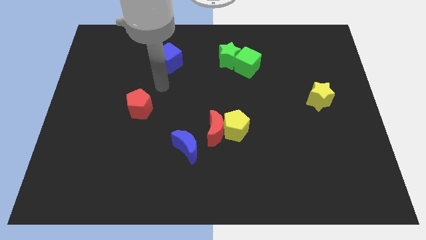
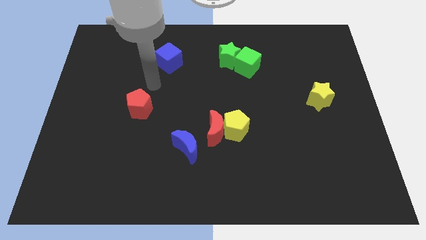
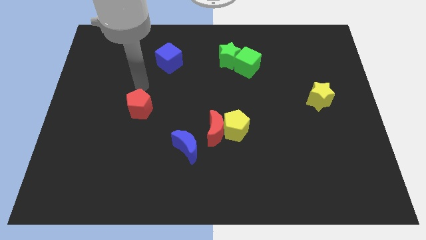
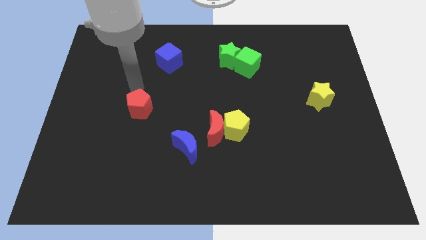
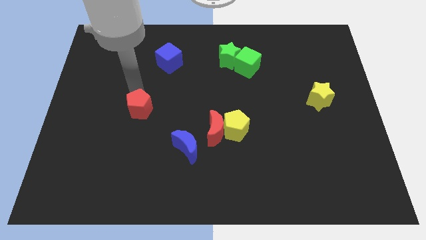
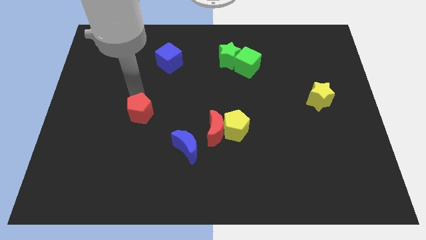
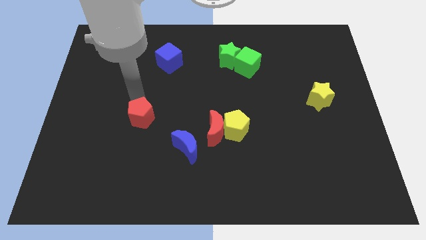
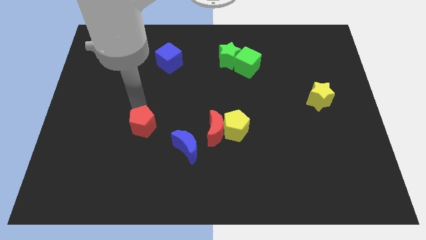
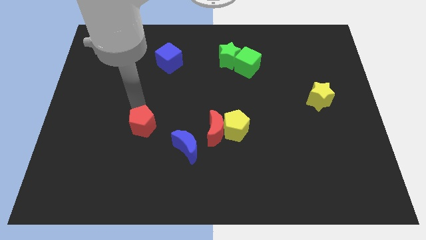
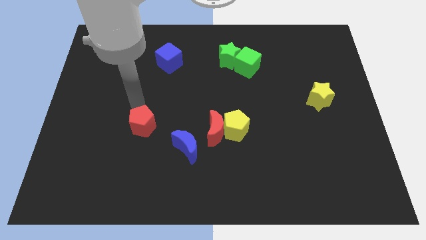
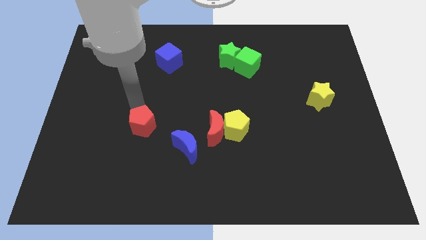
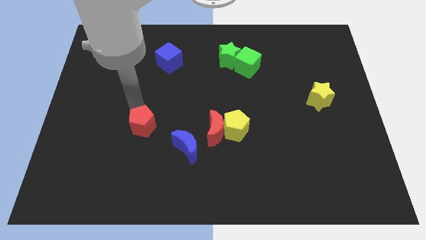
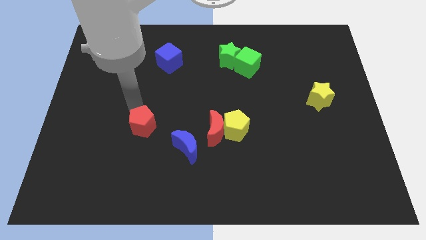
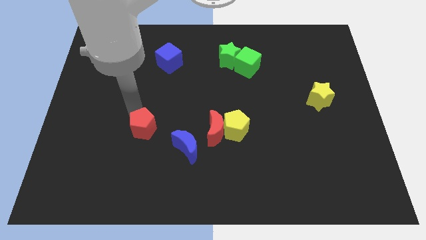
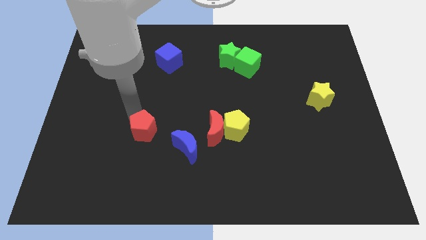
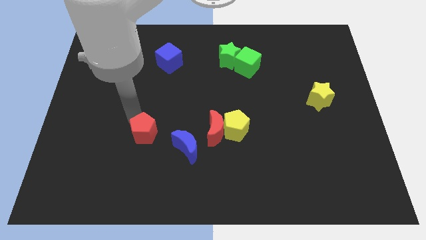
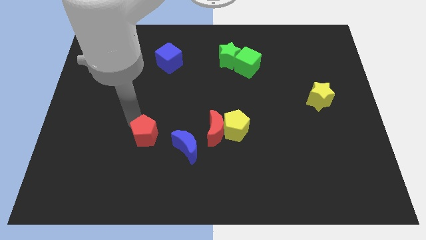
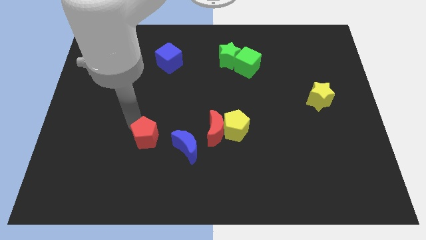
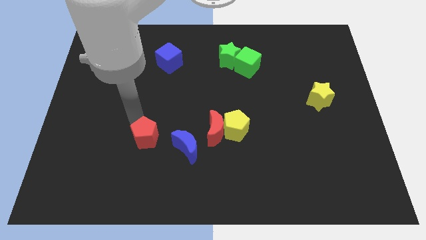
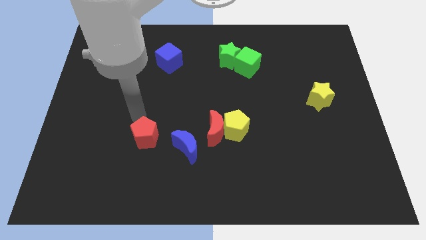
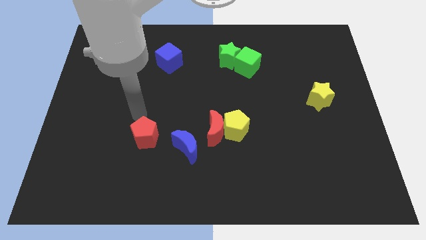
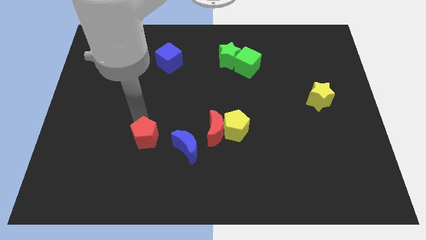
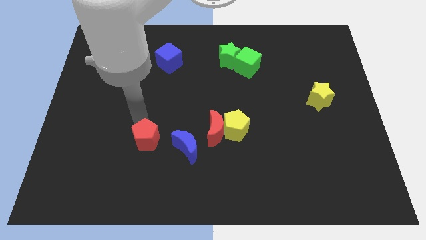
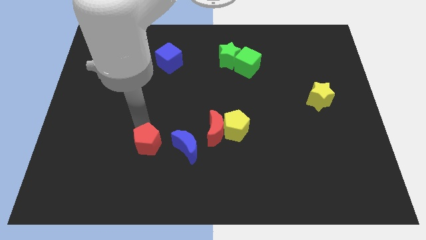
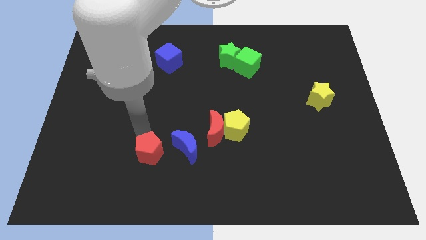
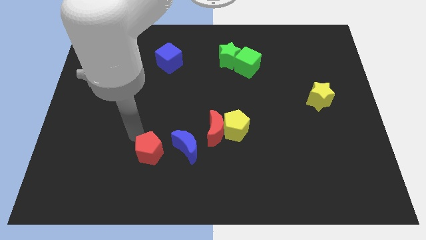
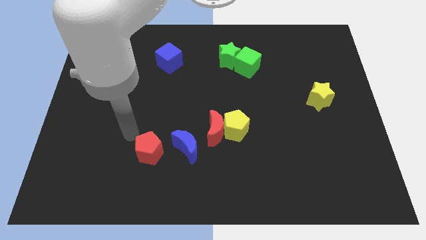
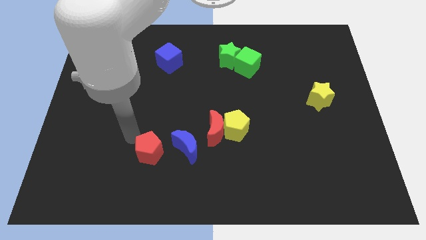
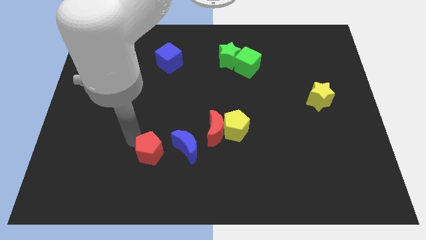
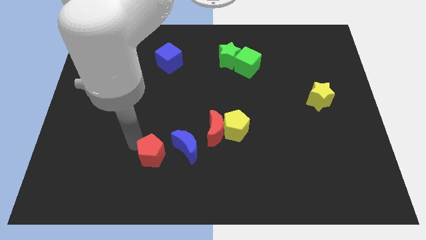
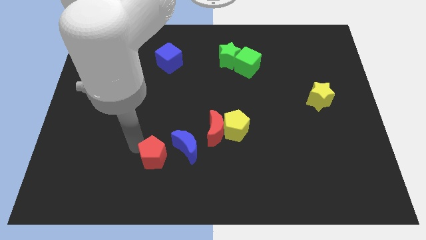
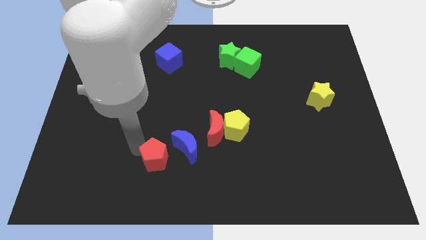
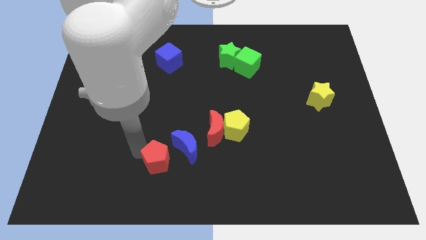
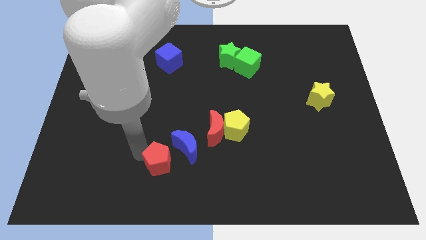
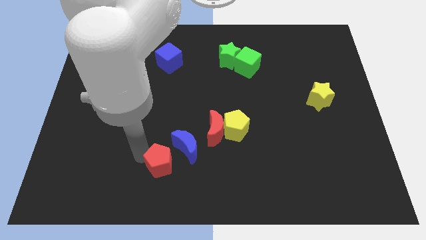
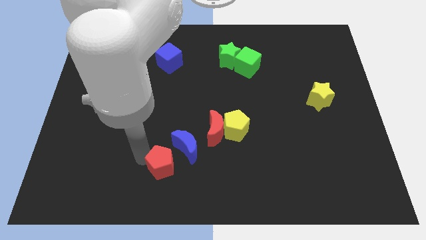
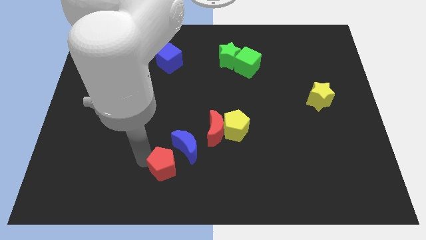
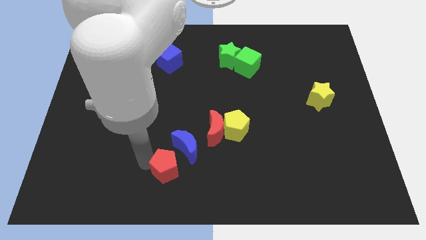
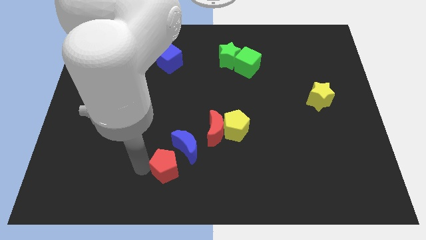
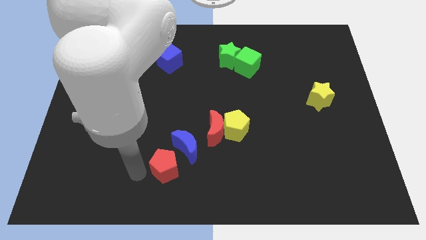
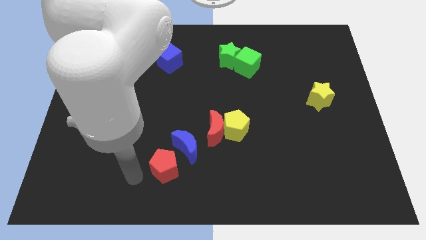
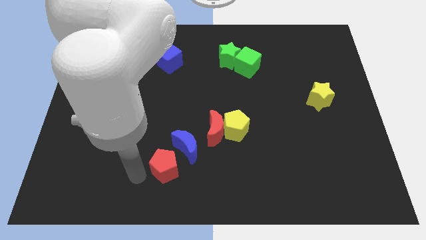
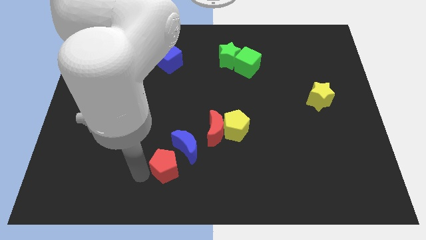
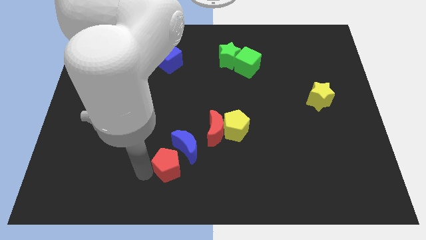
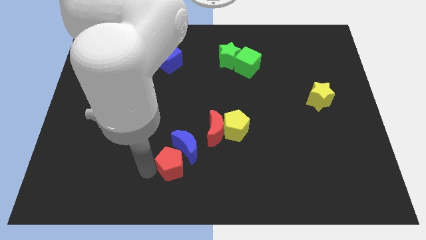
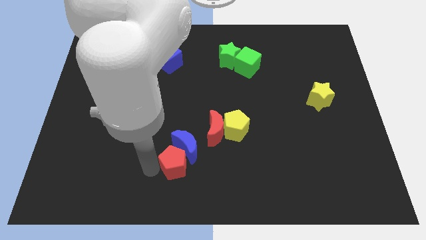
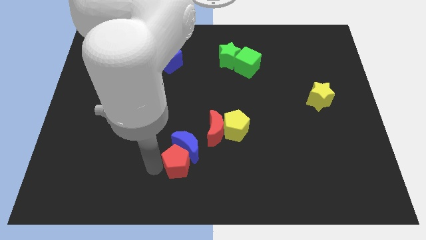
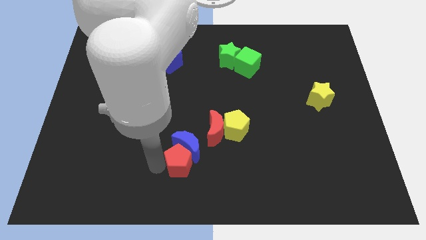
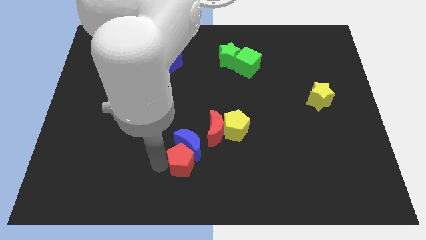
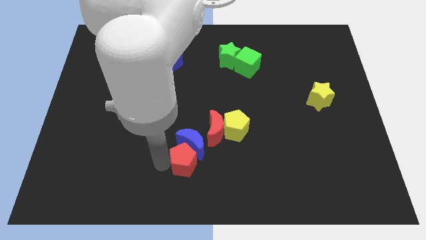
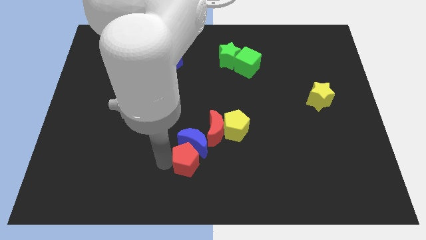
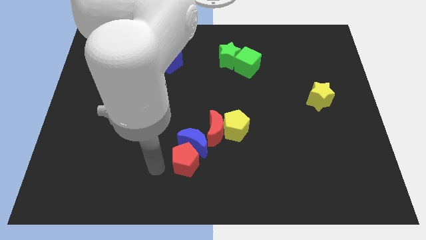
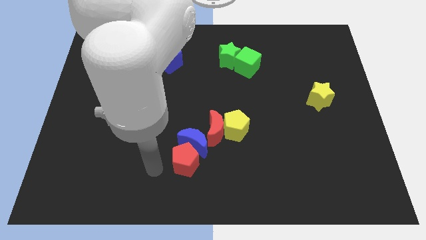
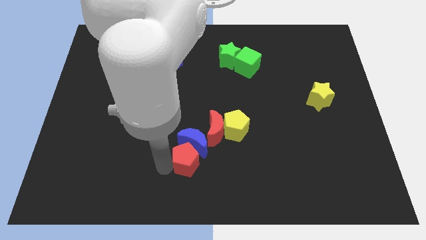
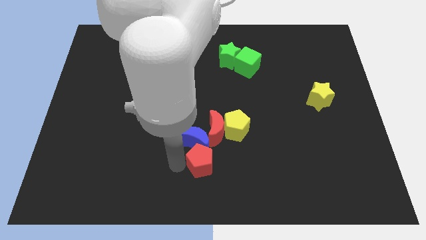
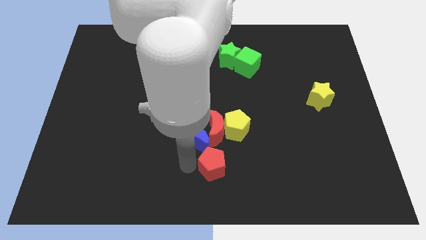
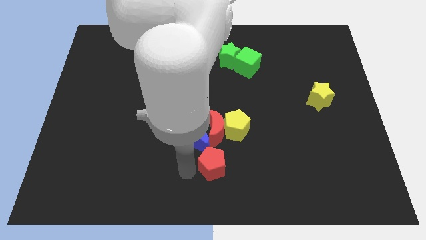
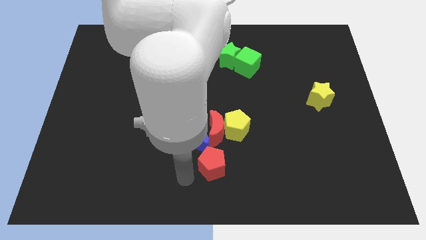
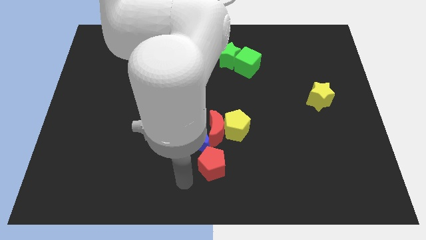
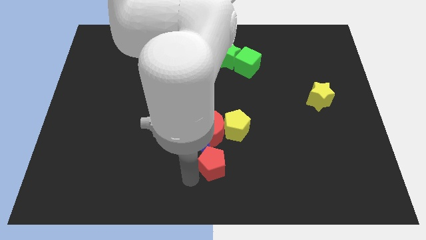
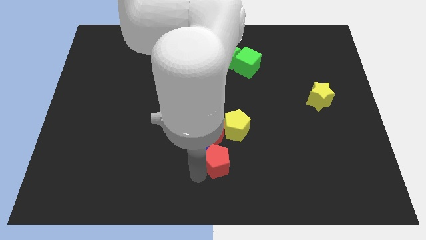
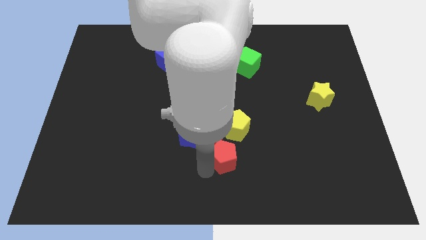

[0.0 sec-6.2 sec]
slide the red pentagon to the bottom right side of the red moon

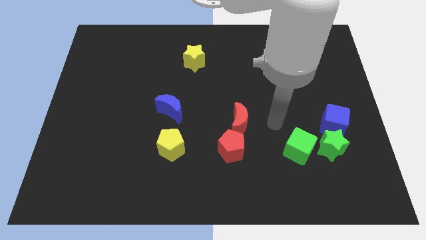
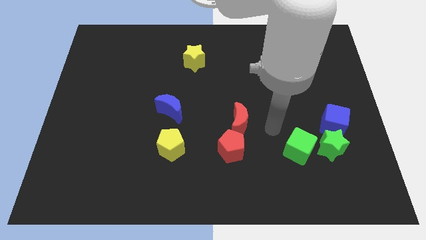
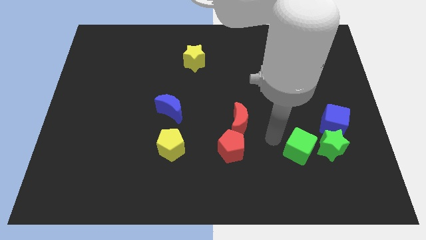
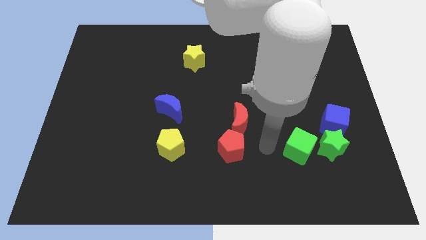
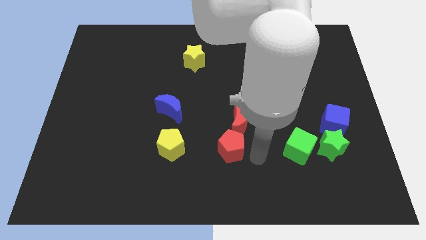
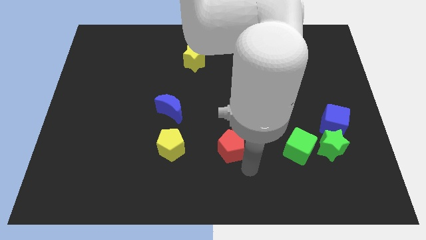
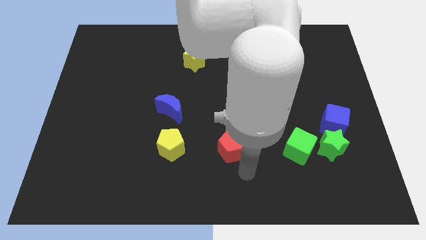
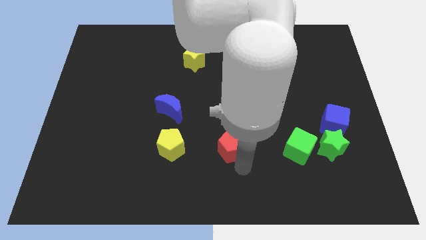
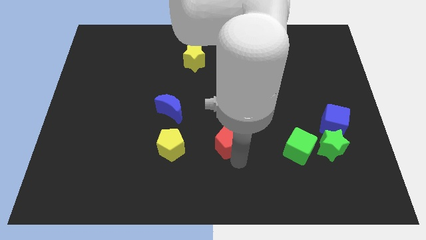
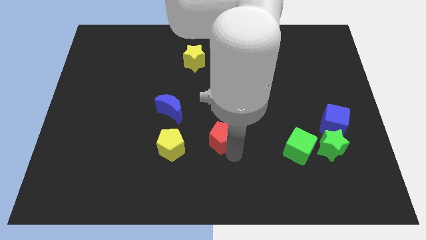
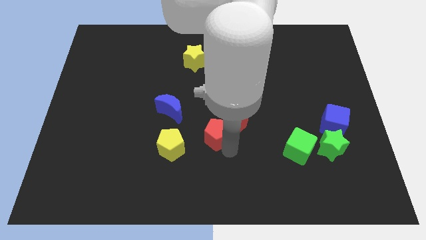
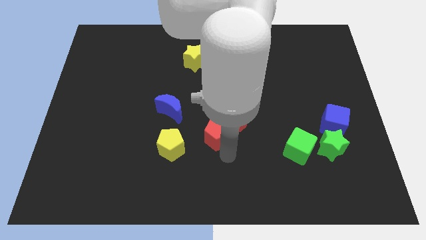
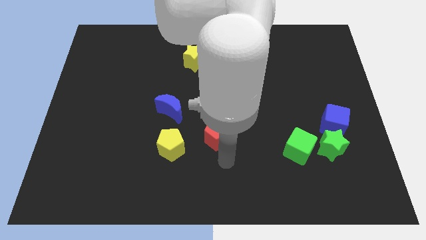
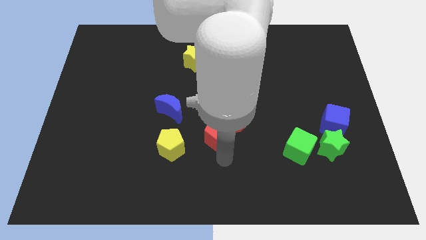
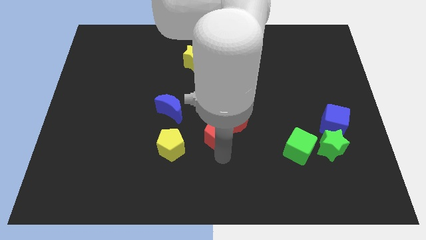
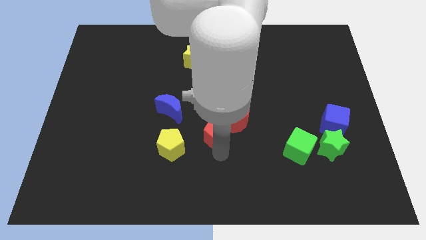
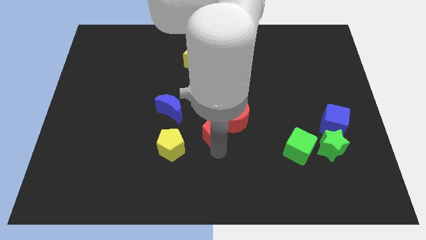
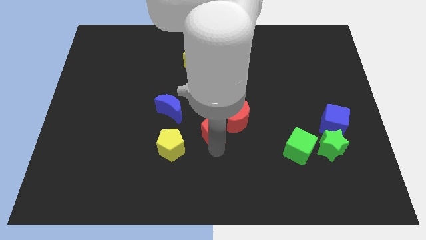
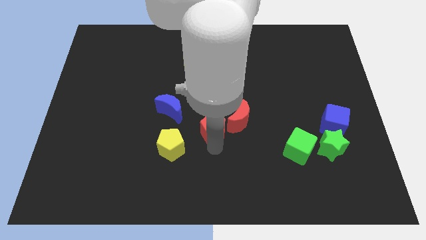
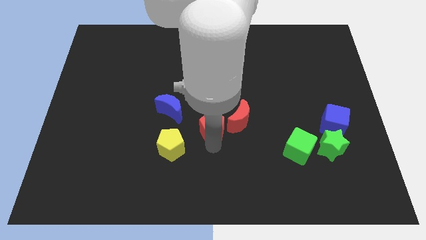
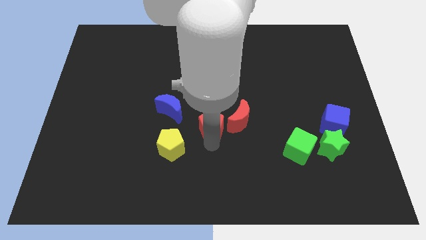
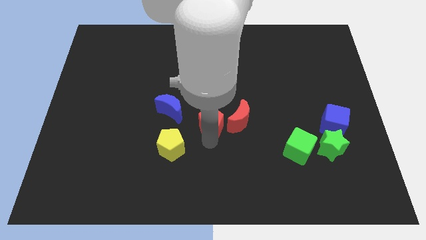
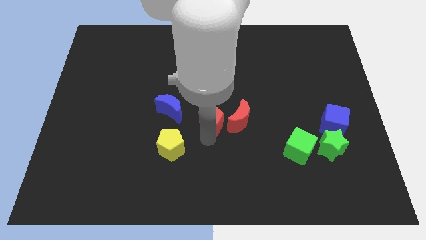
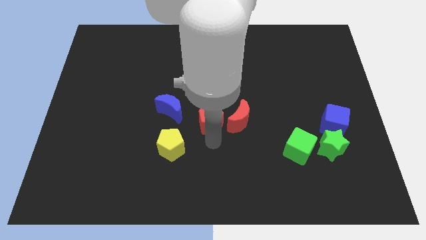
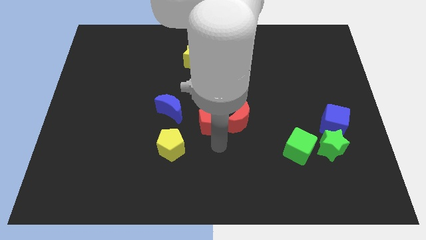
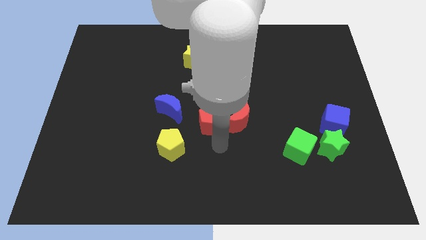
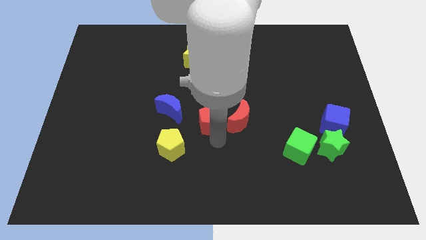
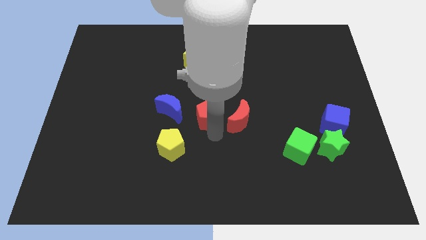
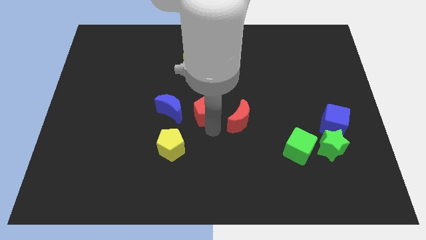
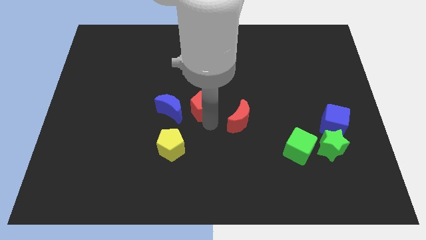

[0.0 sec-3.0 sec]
push the red pentagon diagonally up and to the right of the blue moon
